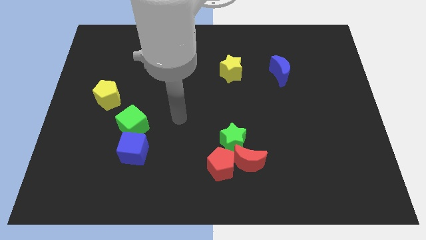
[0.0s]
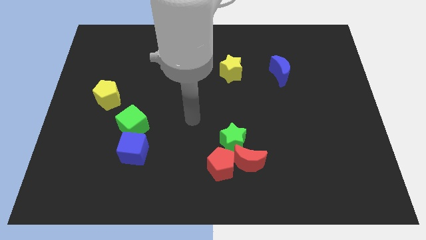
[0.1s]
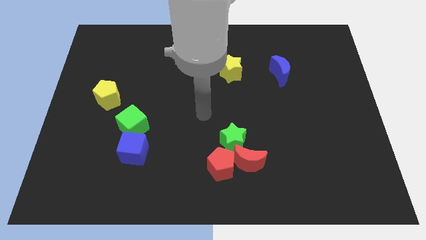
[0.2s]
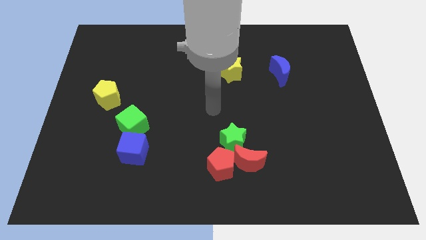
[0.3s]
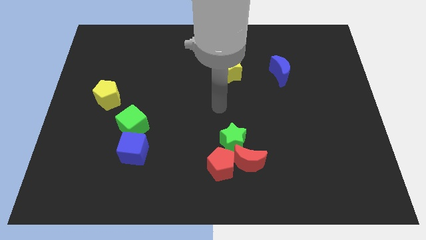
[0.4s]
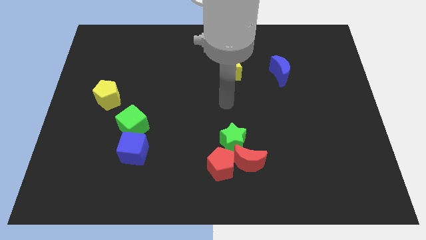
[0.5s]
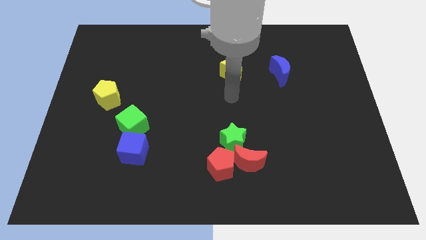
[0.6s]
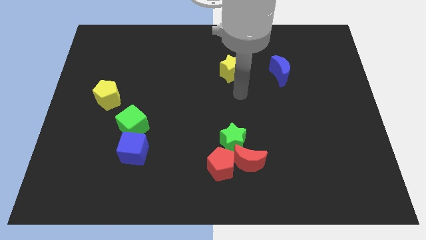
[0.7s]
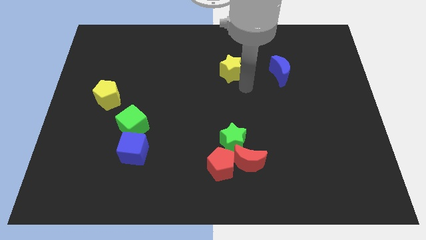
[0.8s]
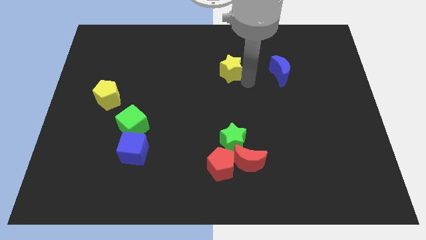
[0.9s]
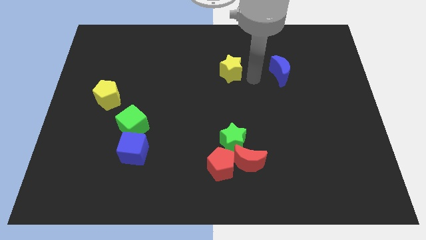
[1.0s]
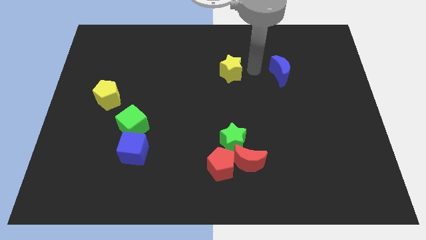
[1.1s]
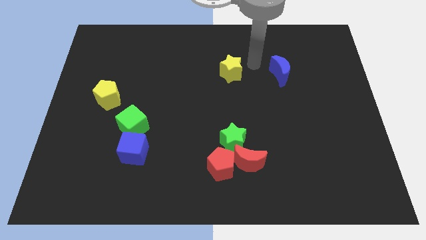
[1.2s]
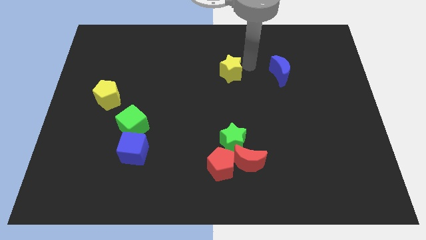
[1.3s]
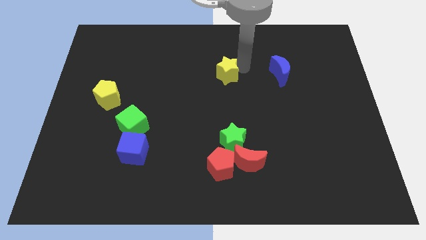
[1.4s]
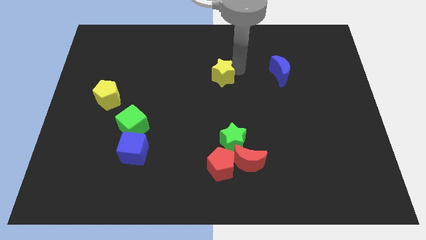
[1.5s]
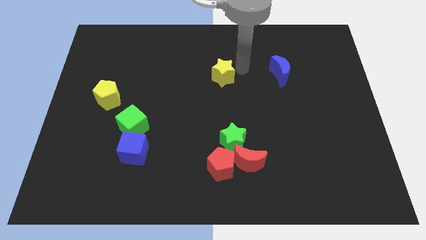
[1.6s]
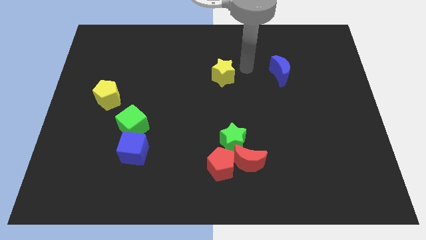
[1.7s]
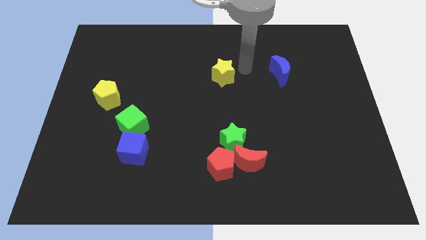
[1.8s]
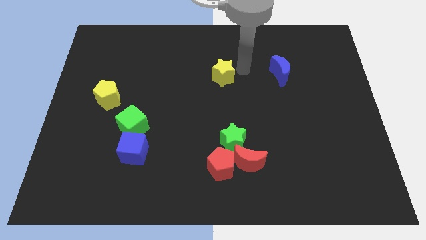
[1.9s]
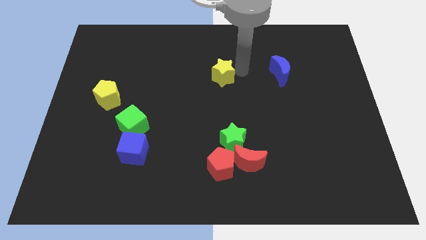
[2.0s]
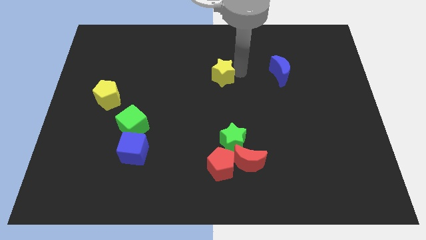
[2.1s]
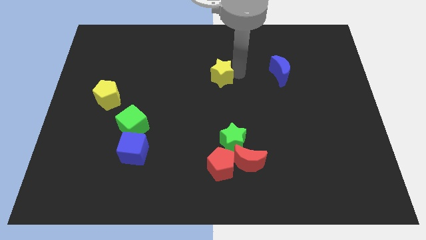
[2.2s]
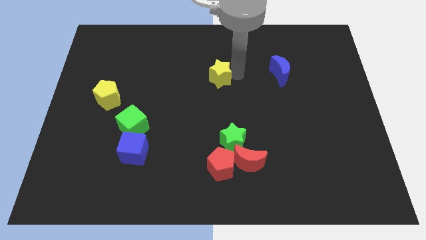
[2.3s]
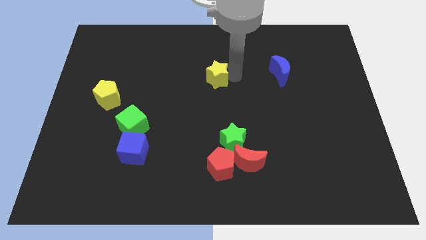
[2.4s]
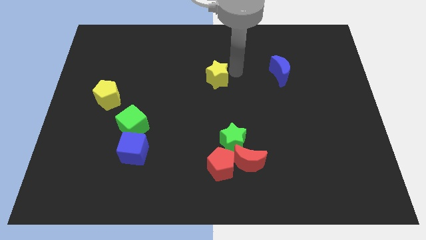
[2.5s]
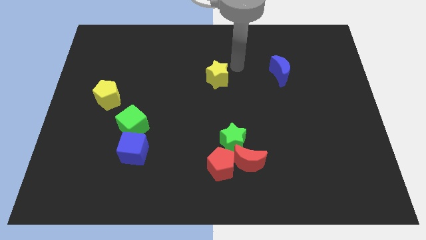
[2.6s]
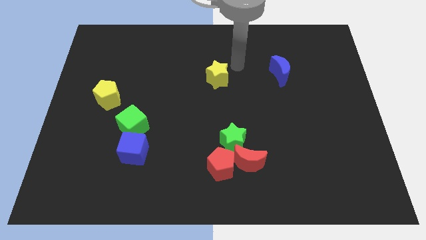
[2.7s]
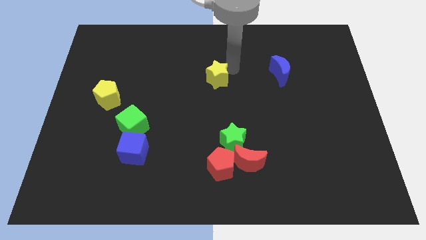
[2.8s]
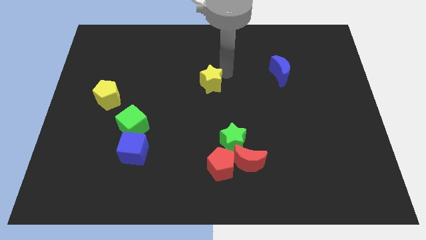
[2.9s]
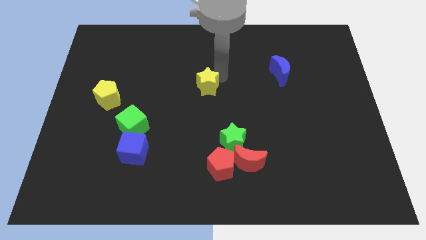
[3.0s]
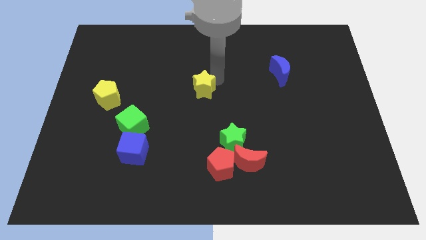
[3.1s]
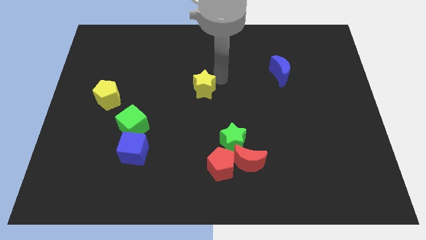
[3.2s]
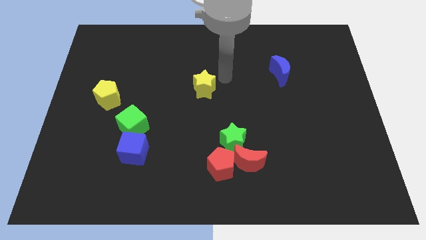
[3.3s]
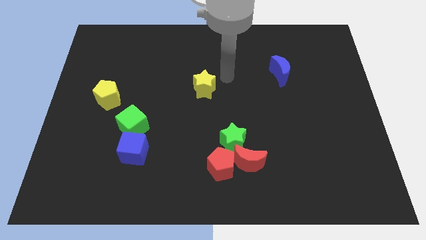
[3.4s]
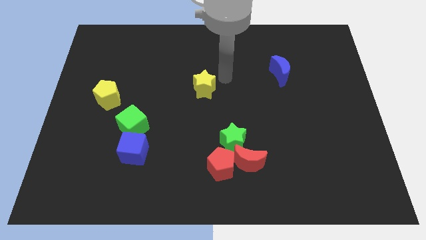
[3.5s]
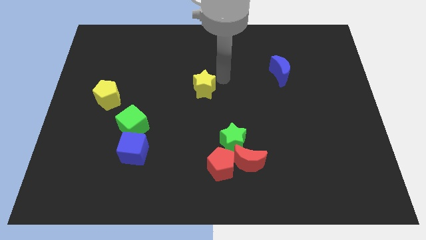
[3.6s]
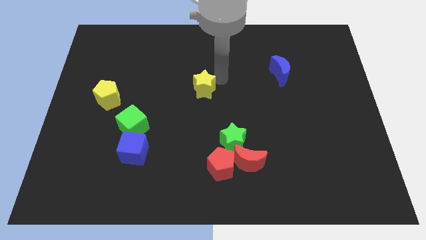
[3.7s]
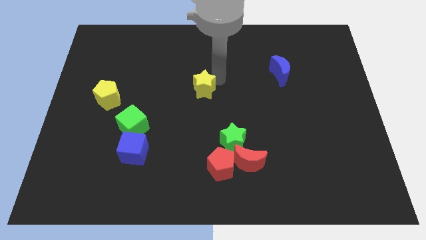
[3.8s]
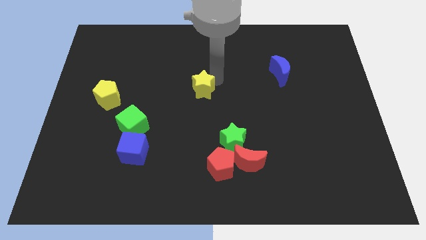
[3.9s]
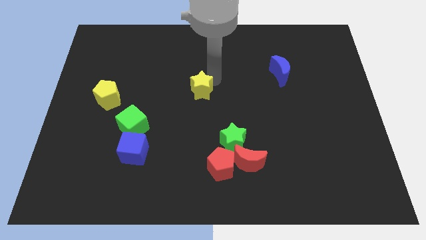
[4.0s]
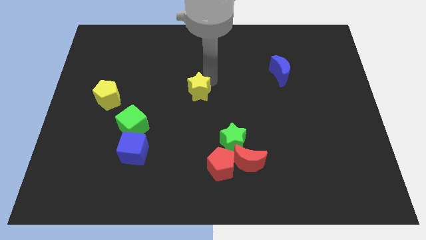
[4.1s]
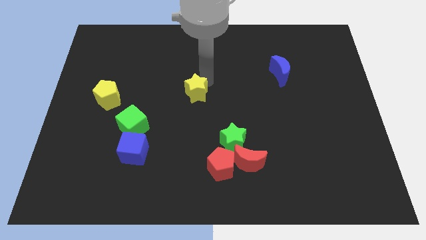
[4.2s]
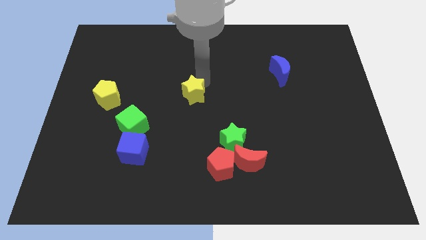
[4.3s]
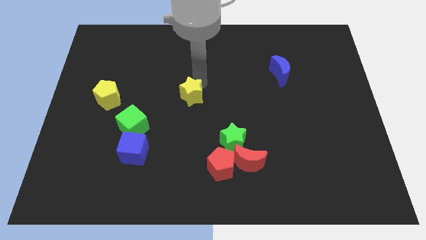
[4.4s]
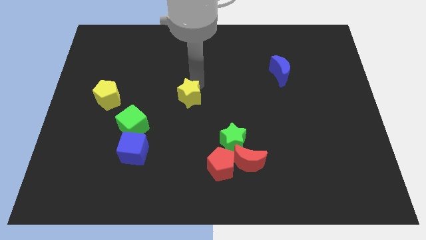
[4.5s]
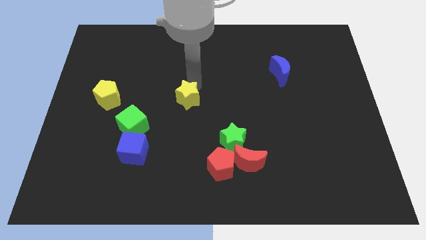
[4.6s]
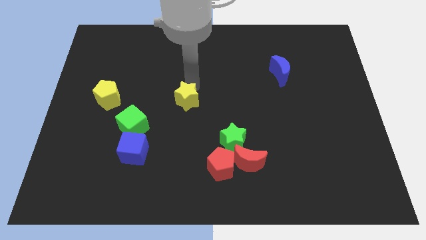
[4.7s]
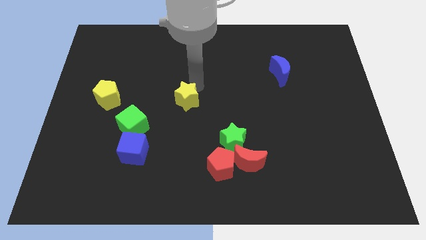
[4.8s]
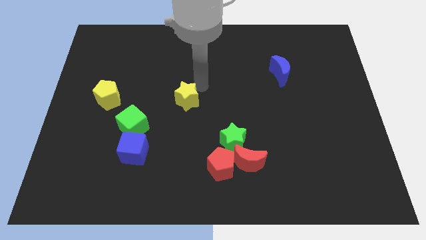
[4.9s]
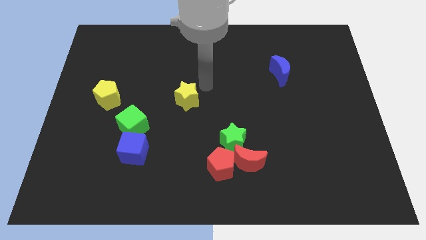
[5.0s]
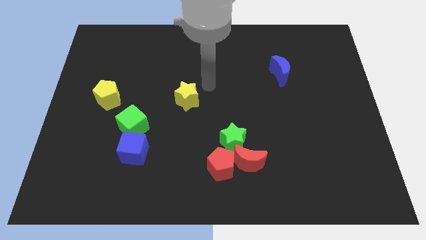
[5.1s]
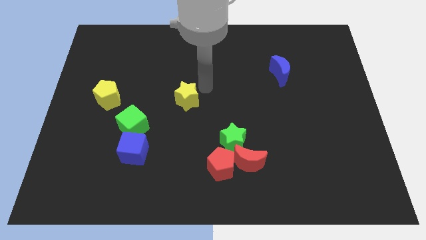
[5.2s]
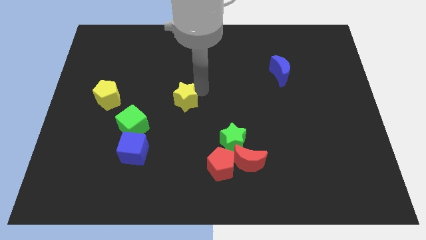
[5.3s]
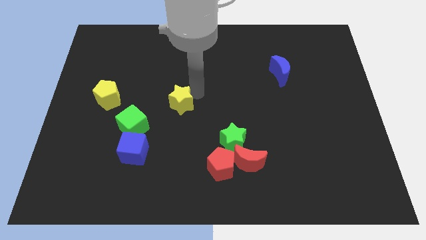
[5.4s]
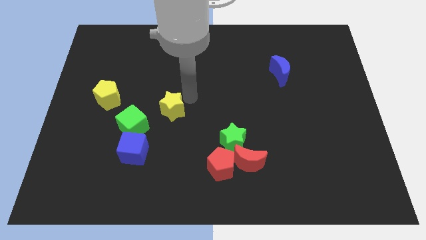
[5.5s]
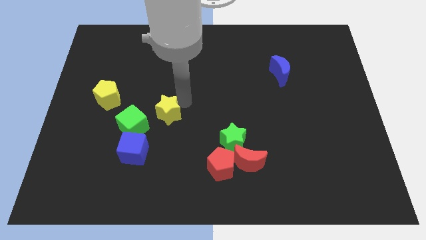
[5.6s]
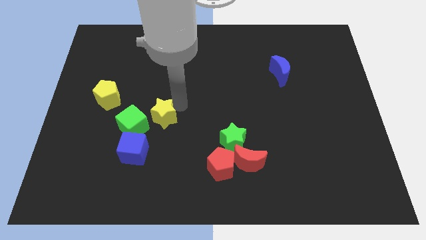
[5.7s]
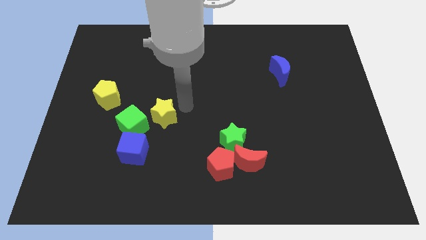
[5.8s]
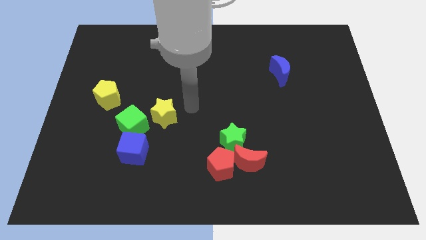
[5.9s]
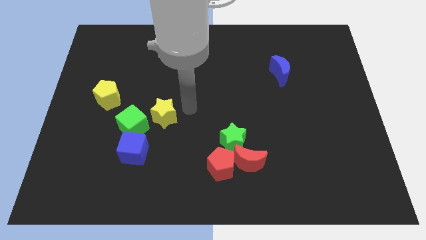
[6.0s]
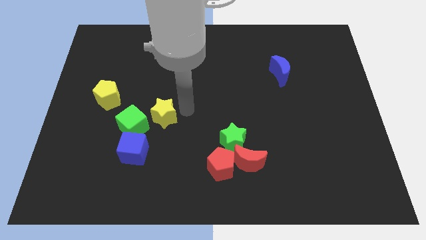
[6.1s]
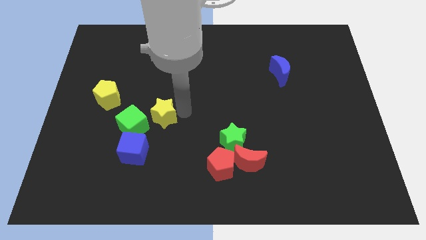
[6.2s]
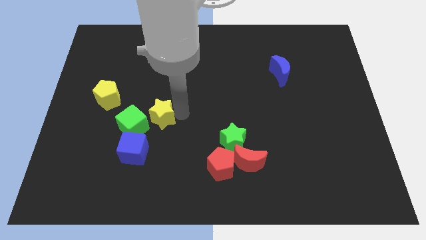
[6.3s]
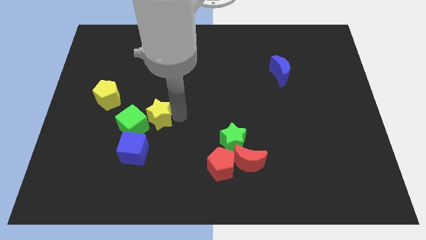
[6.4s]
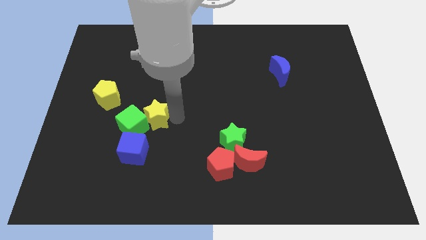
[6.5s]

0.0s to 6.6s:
push the yellow star to the green cube

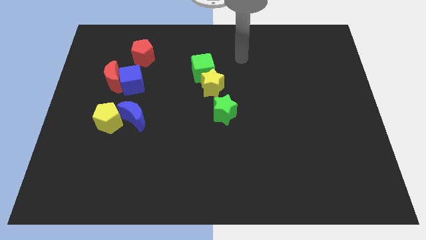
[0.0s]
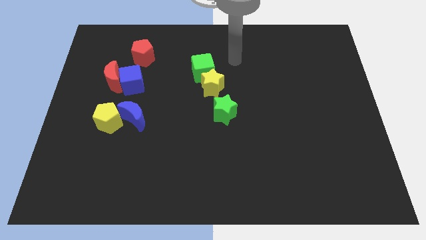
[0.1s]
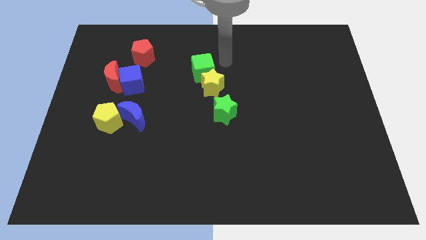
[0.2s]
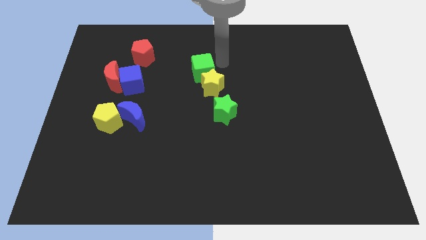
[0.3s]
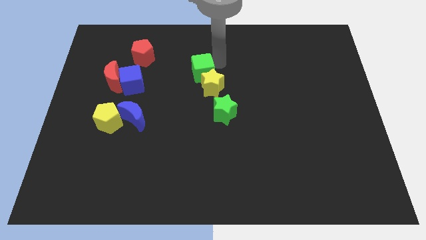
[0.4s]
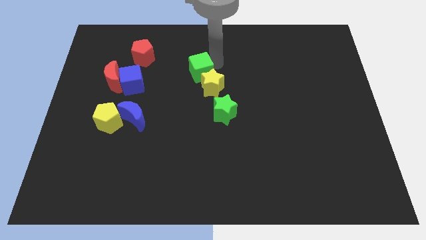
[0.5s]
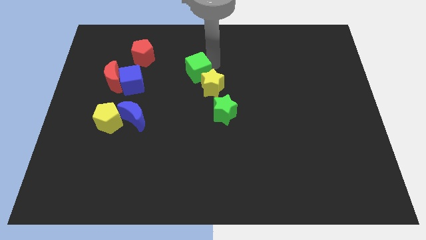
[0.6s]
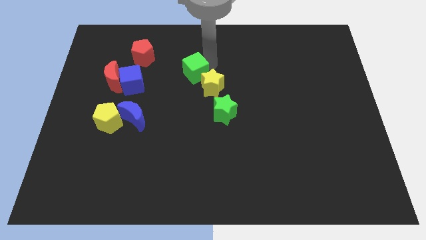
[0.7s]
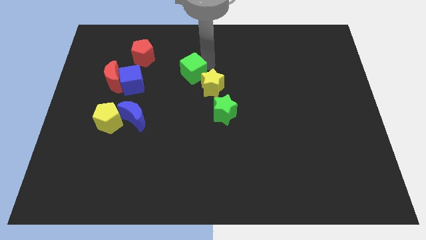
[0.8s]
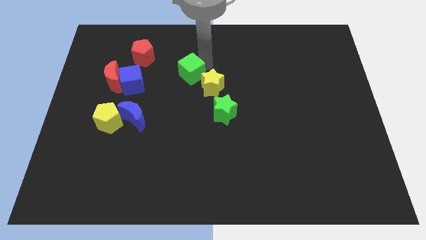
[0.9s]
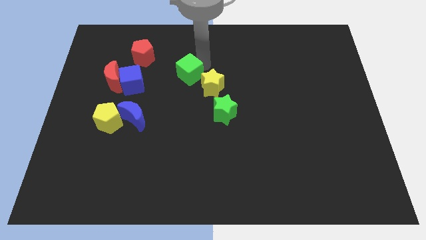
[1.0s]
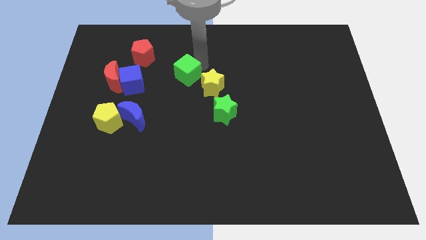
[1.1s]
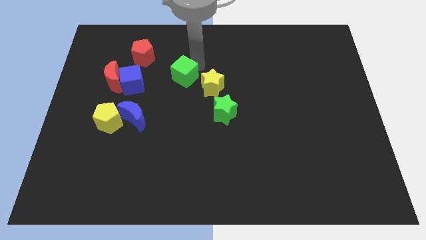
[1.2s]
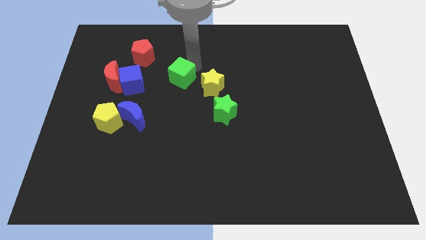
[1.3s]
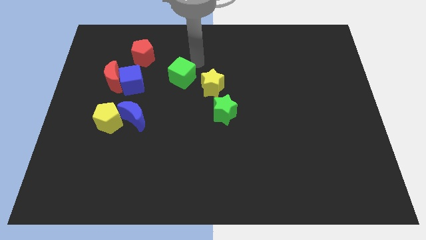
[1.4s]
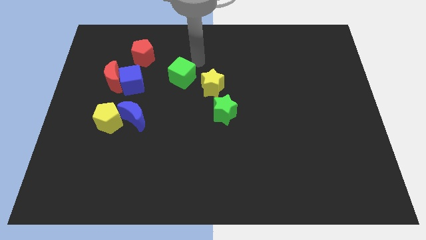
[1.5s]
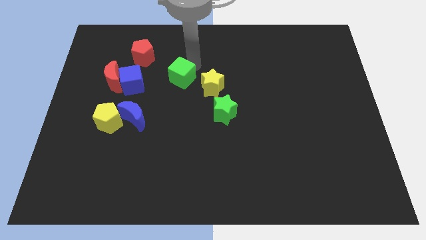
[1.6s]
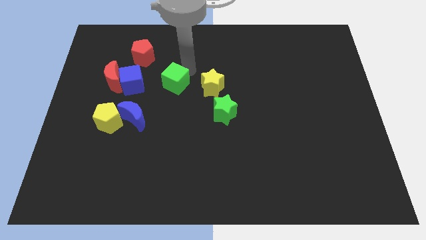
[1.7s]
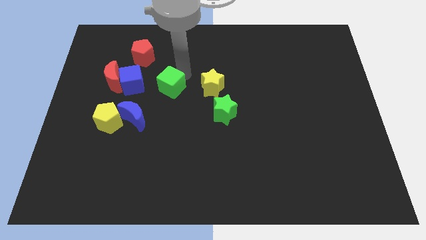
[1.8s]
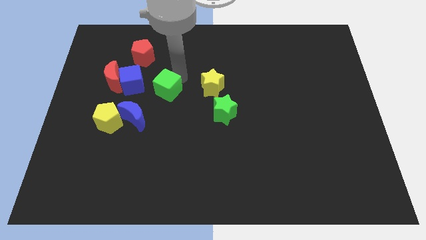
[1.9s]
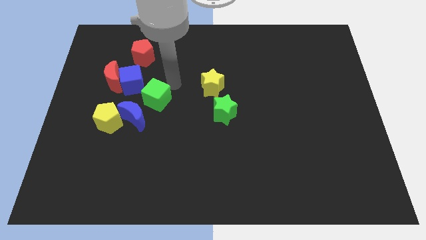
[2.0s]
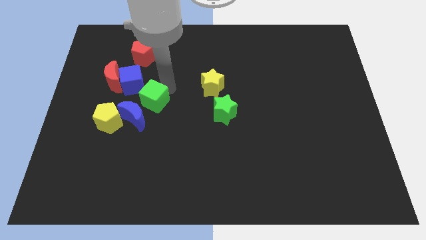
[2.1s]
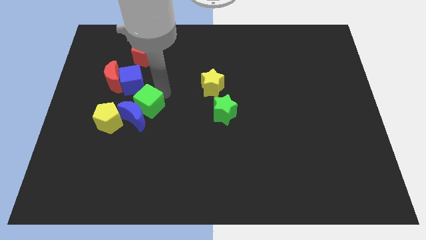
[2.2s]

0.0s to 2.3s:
slide the green cube close to the blue moon
